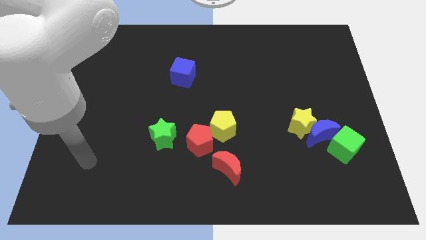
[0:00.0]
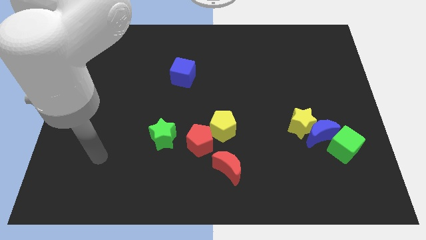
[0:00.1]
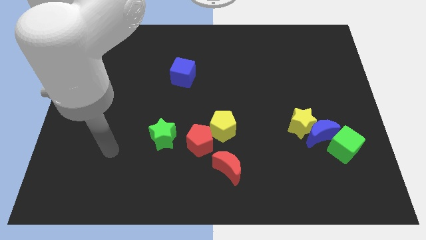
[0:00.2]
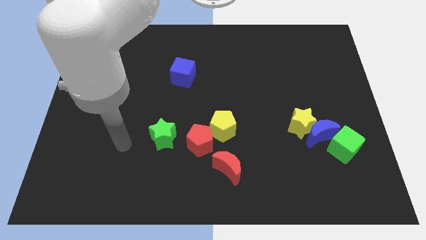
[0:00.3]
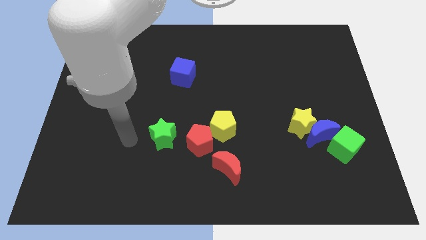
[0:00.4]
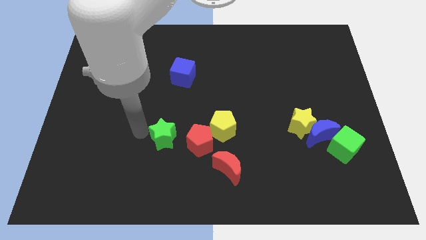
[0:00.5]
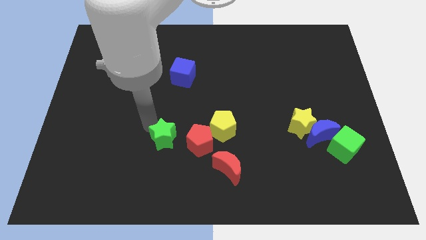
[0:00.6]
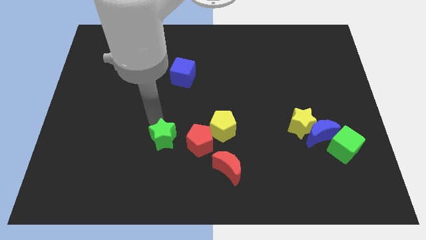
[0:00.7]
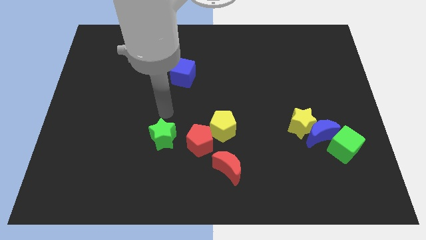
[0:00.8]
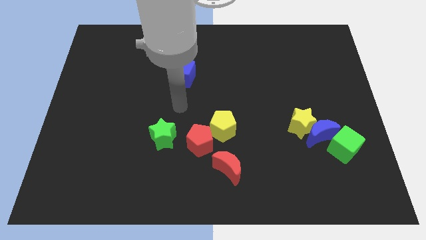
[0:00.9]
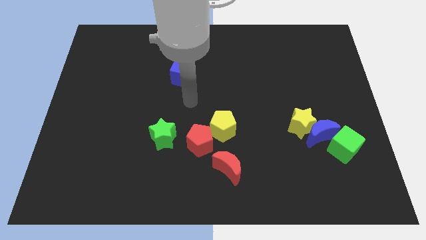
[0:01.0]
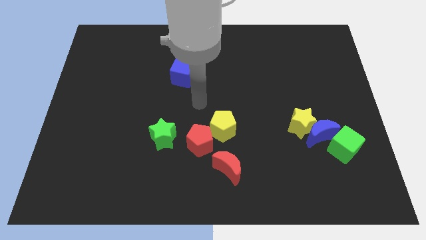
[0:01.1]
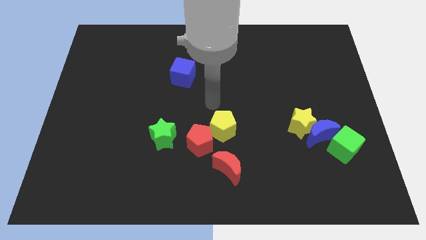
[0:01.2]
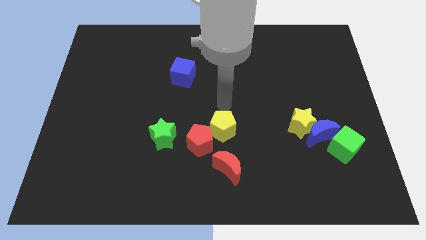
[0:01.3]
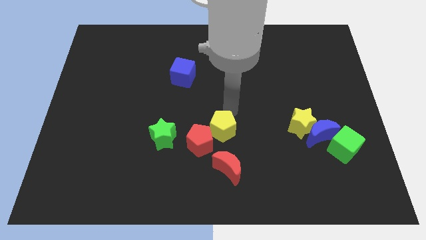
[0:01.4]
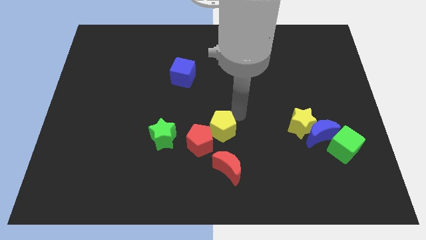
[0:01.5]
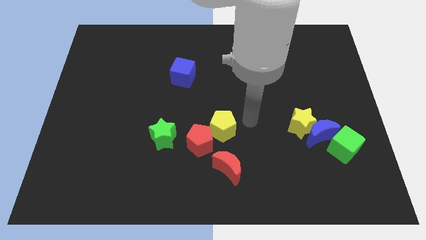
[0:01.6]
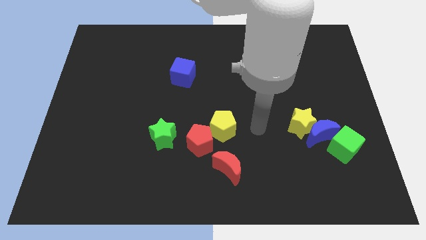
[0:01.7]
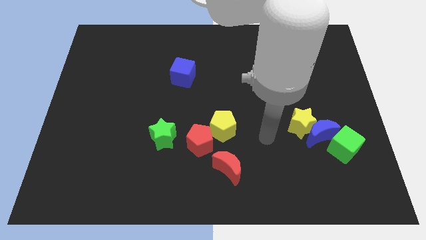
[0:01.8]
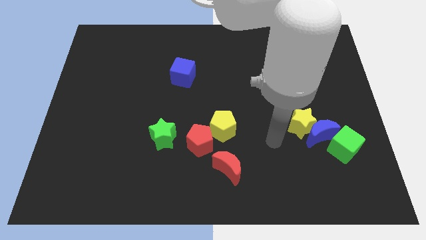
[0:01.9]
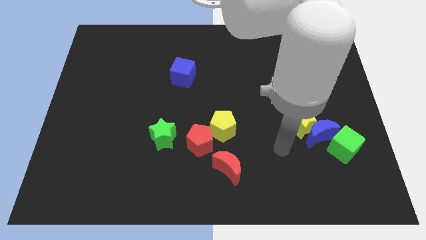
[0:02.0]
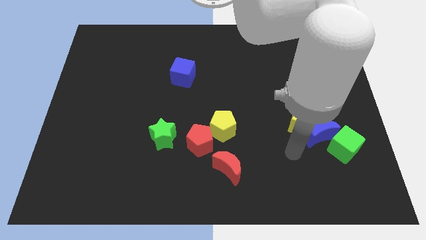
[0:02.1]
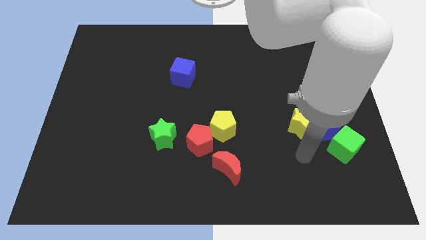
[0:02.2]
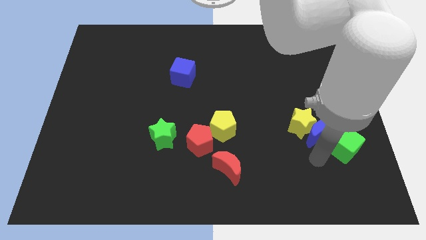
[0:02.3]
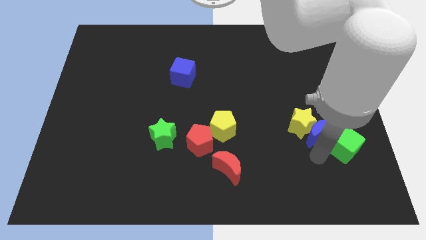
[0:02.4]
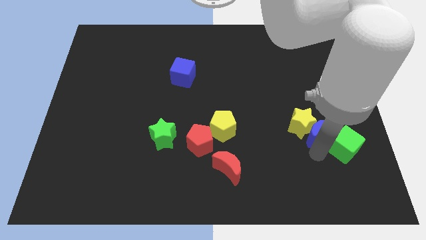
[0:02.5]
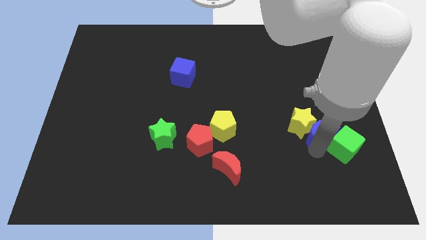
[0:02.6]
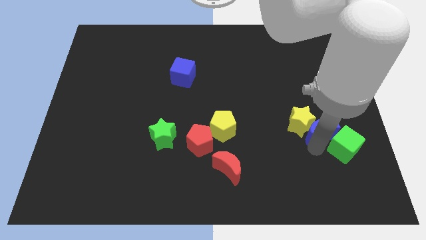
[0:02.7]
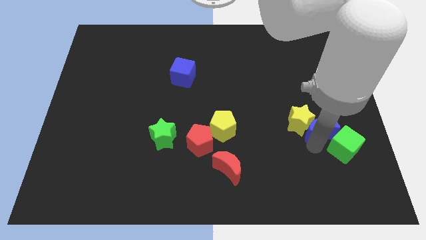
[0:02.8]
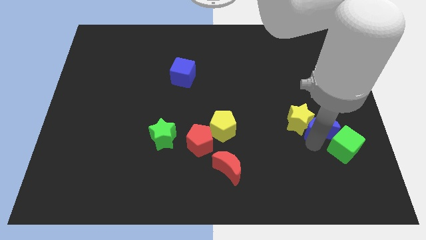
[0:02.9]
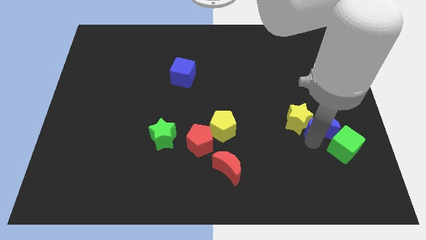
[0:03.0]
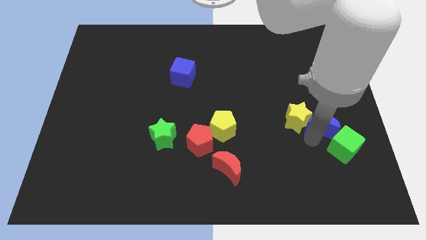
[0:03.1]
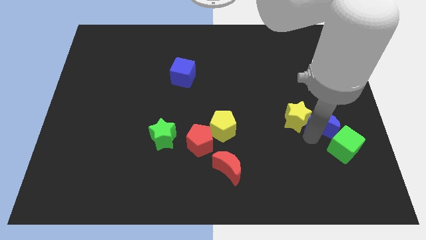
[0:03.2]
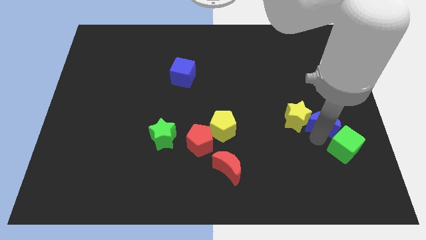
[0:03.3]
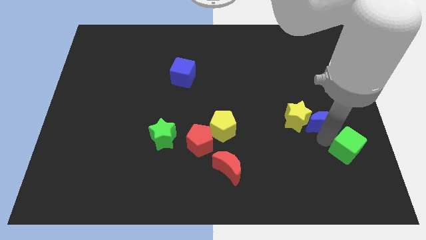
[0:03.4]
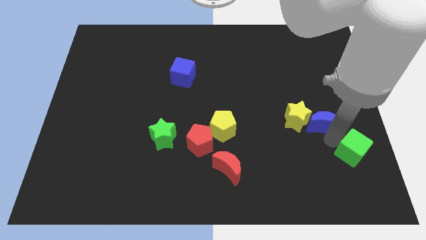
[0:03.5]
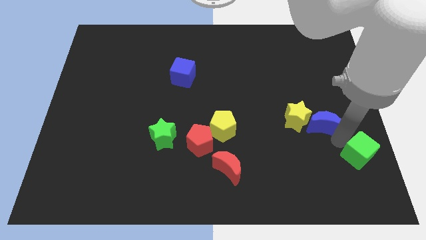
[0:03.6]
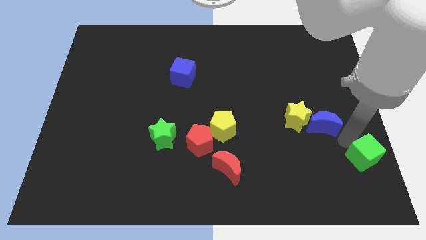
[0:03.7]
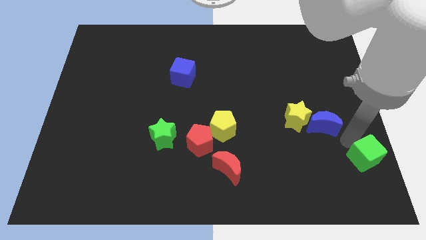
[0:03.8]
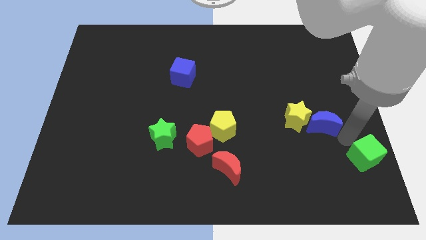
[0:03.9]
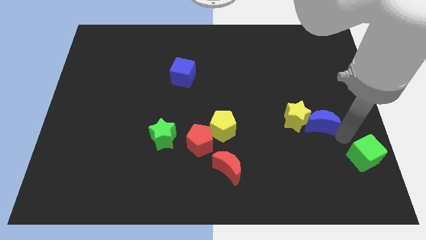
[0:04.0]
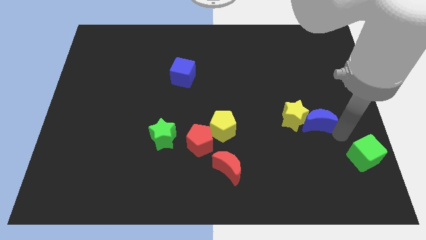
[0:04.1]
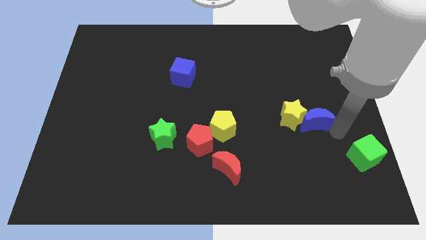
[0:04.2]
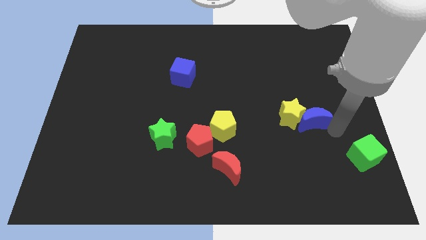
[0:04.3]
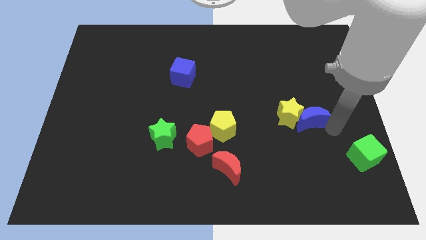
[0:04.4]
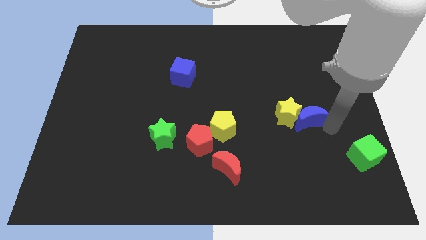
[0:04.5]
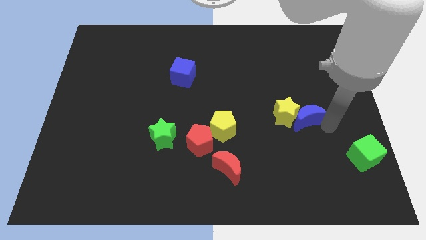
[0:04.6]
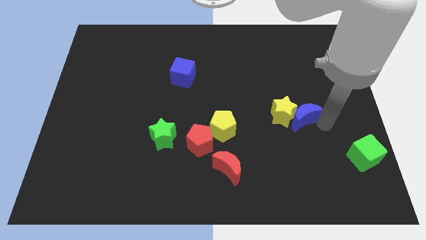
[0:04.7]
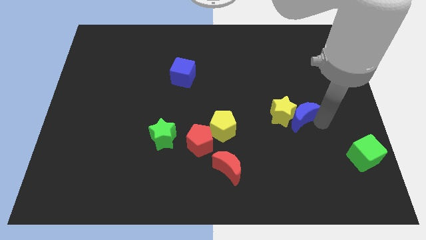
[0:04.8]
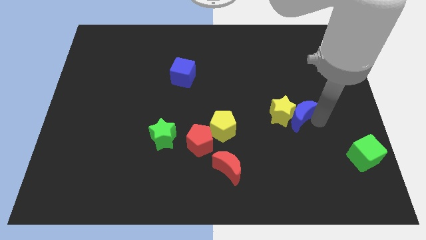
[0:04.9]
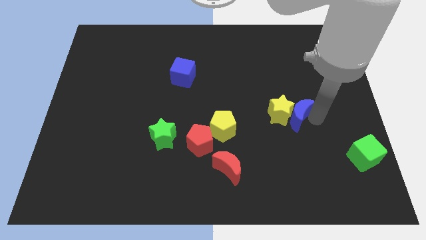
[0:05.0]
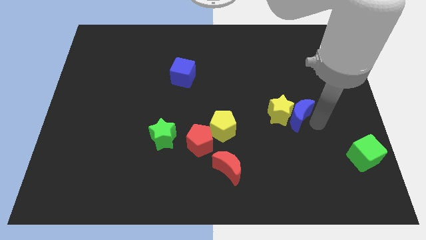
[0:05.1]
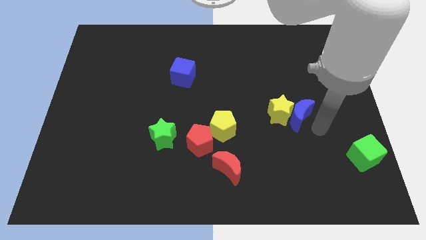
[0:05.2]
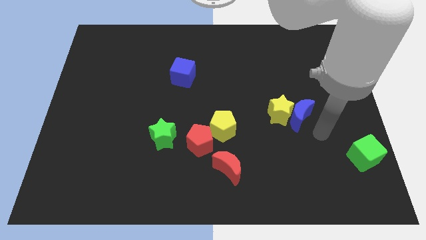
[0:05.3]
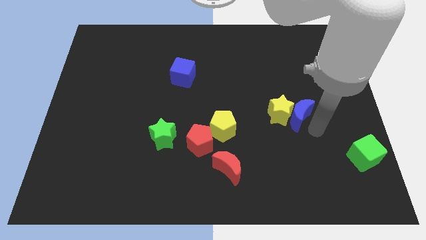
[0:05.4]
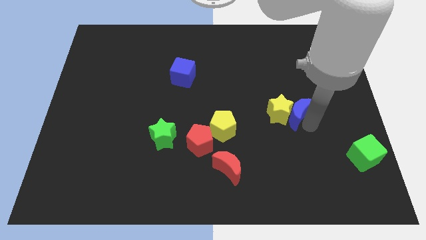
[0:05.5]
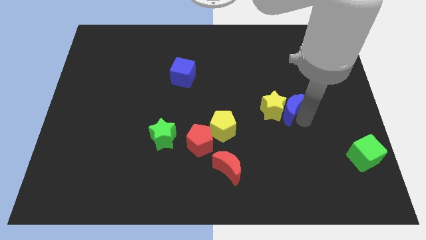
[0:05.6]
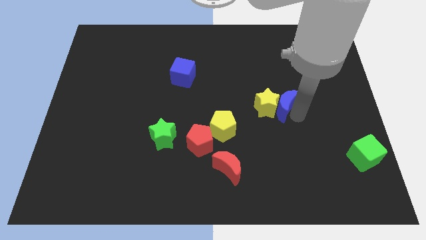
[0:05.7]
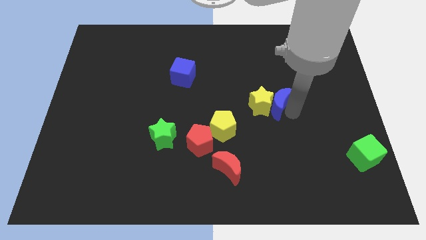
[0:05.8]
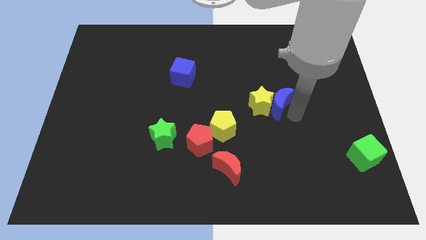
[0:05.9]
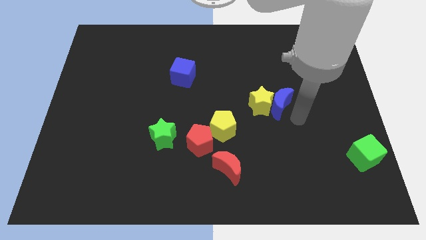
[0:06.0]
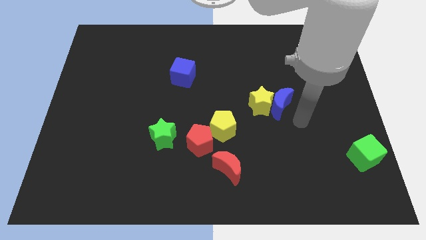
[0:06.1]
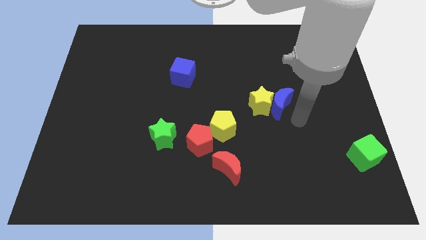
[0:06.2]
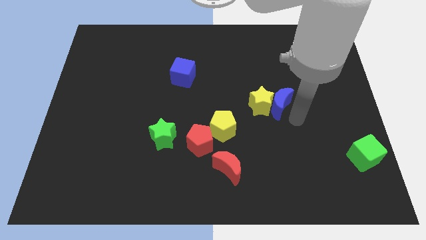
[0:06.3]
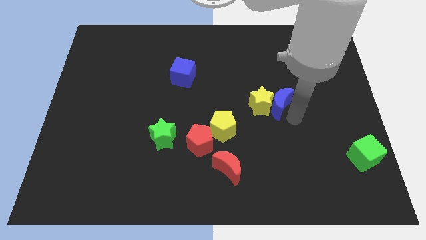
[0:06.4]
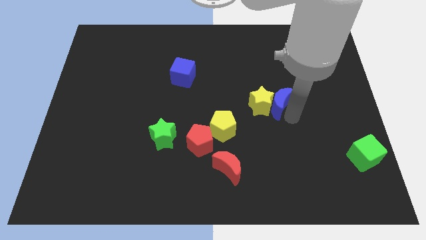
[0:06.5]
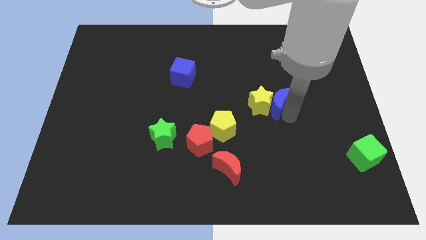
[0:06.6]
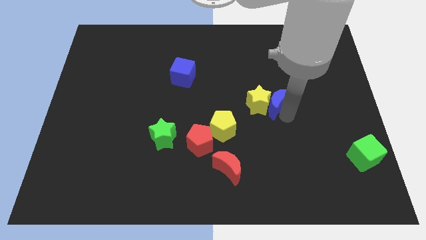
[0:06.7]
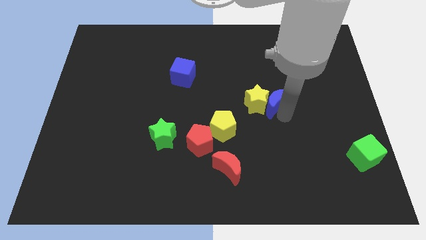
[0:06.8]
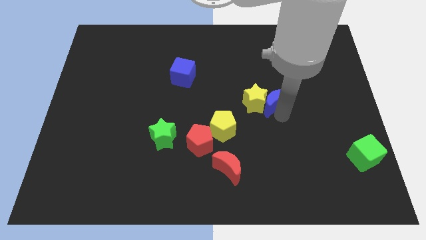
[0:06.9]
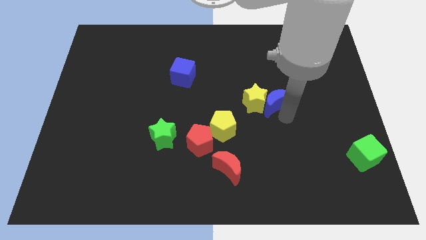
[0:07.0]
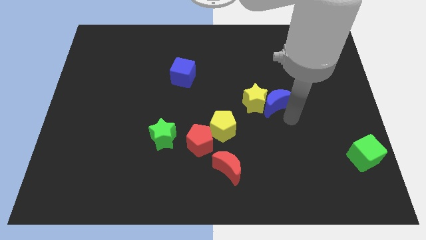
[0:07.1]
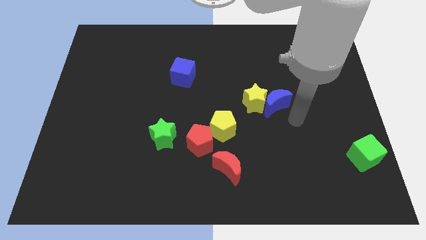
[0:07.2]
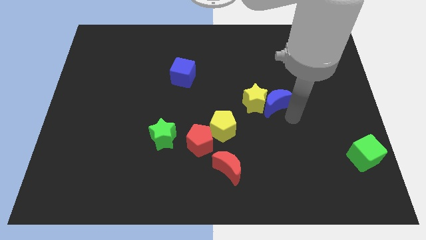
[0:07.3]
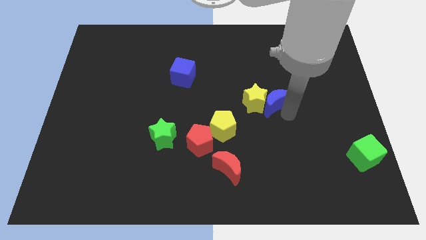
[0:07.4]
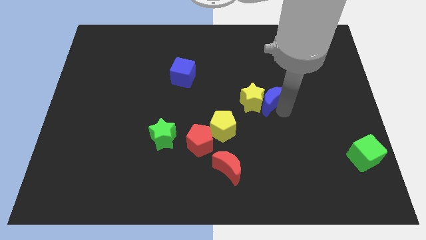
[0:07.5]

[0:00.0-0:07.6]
separate the blue moon from the yellow star and green cube

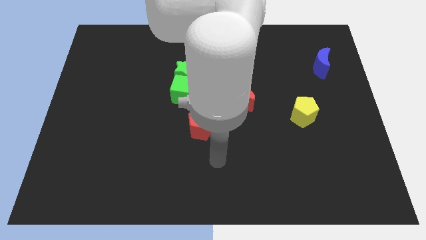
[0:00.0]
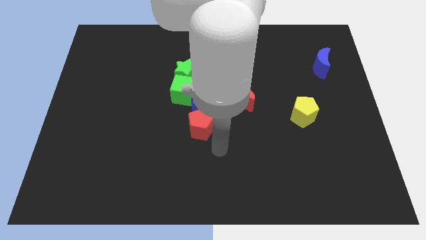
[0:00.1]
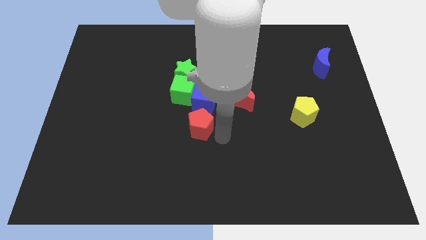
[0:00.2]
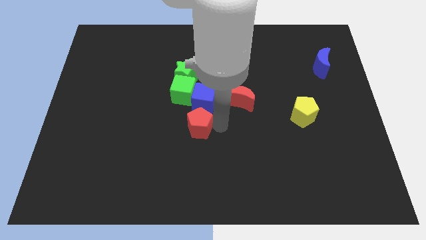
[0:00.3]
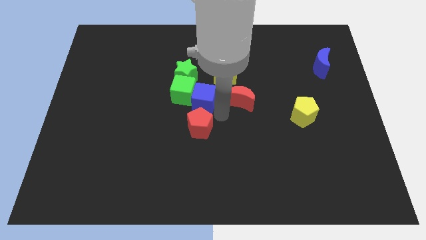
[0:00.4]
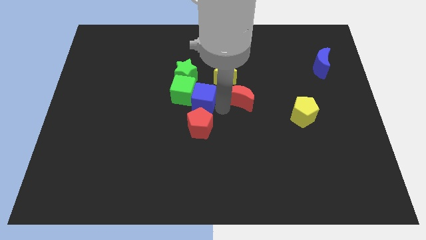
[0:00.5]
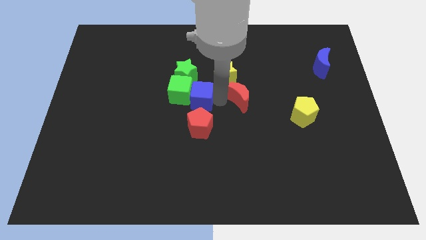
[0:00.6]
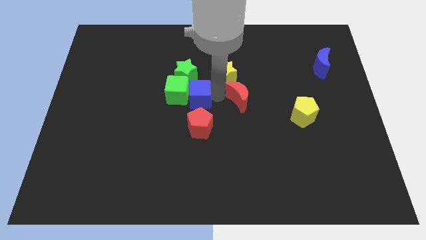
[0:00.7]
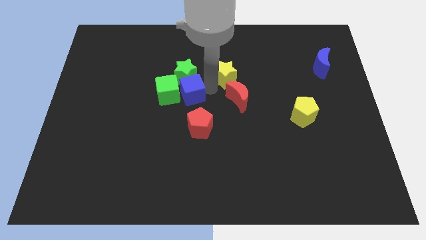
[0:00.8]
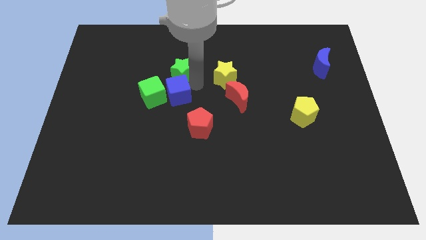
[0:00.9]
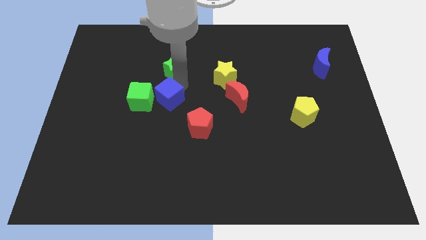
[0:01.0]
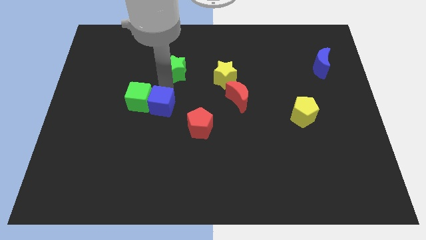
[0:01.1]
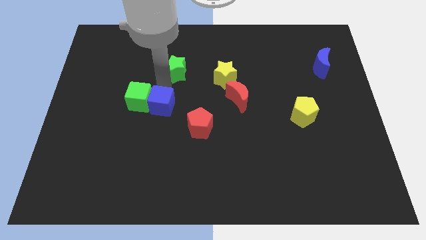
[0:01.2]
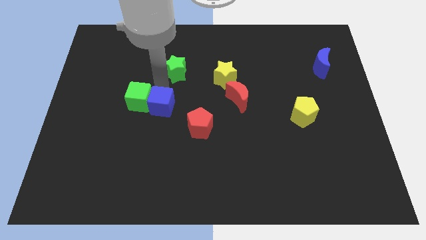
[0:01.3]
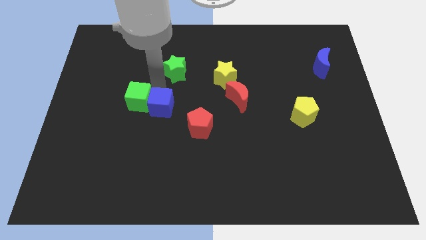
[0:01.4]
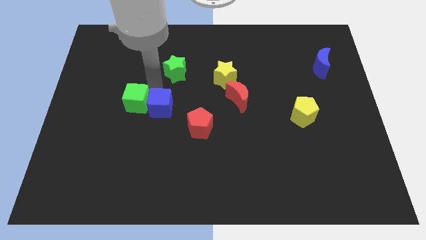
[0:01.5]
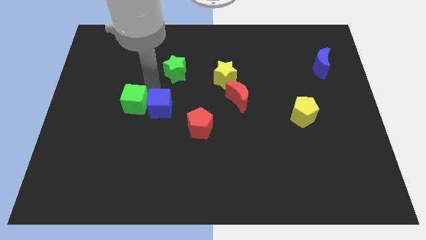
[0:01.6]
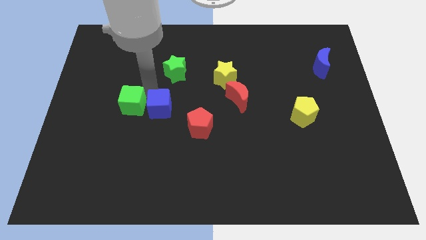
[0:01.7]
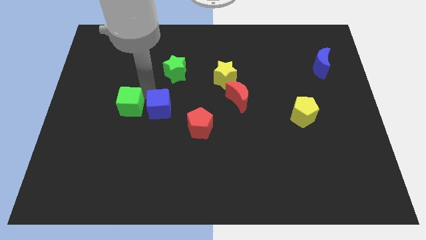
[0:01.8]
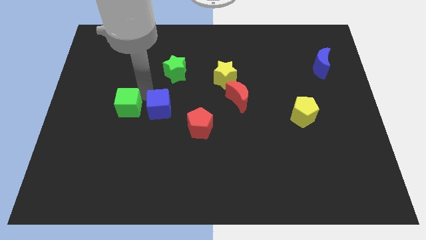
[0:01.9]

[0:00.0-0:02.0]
separate the green cube from the blue cube and green star
